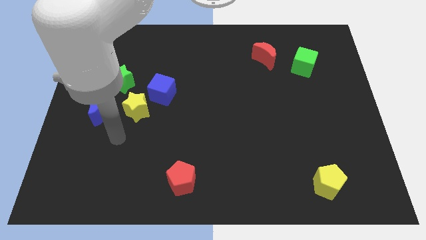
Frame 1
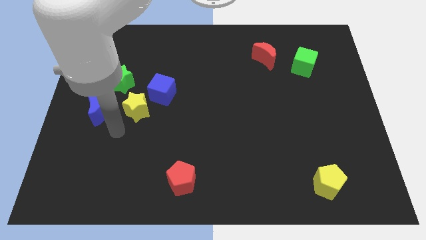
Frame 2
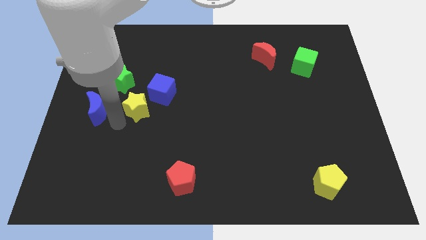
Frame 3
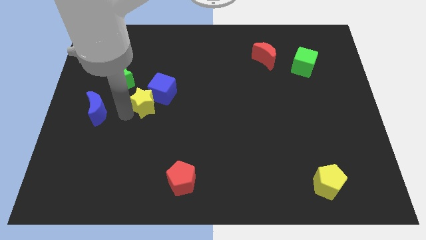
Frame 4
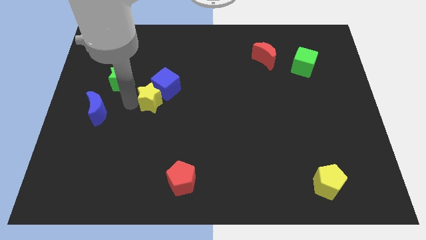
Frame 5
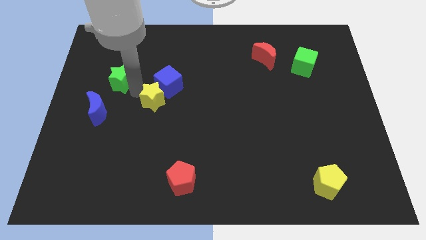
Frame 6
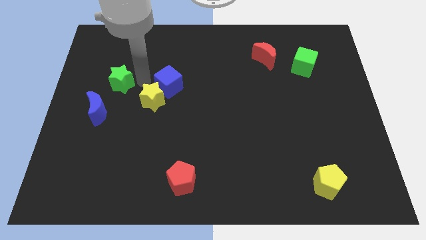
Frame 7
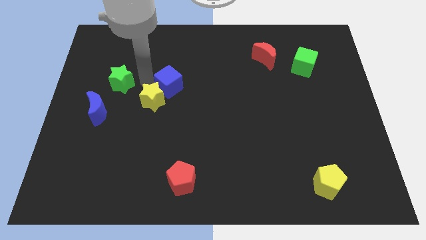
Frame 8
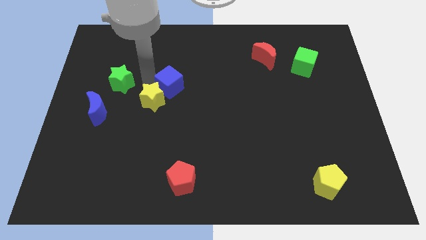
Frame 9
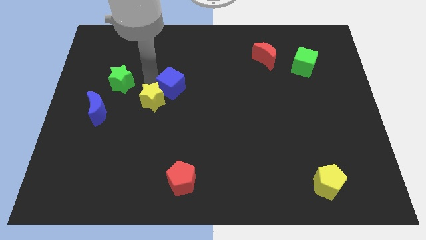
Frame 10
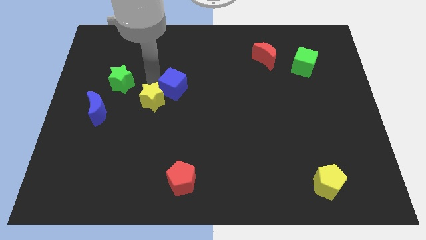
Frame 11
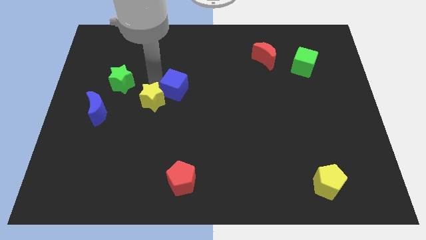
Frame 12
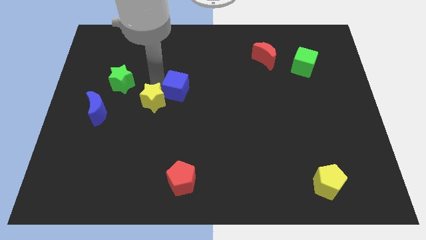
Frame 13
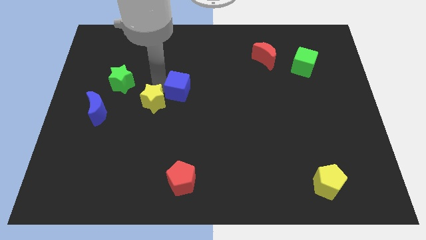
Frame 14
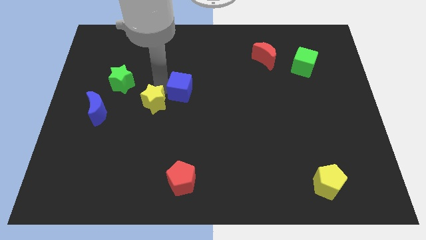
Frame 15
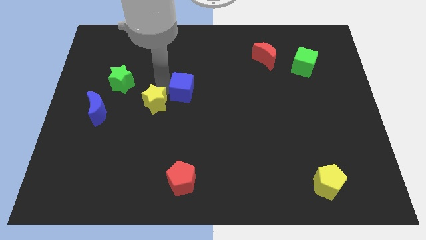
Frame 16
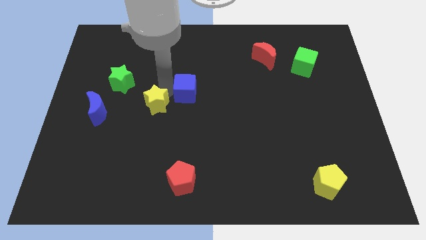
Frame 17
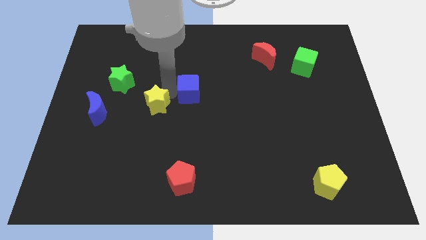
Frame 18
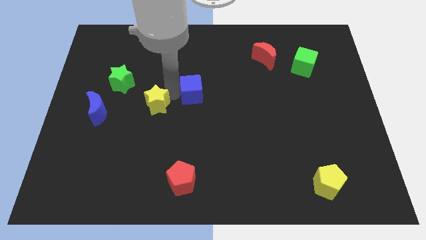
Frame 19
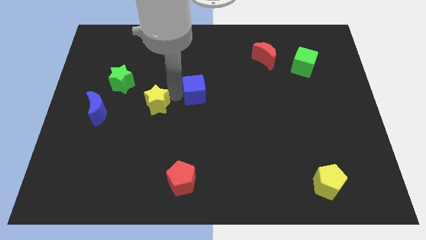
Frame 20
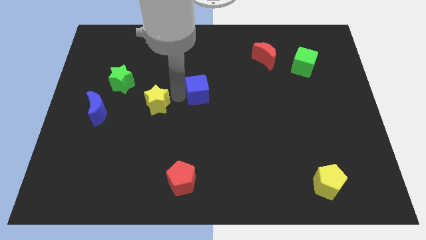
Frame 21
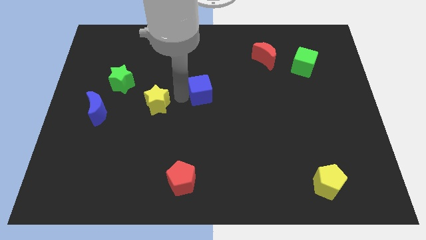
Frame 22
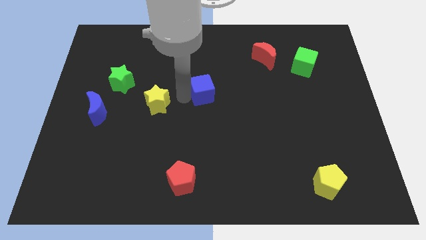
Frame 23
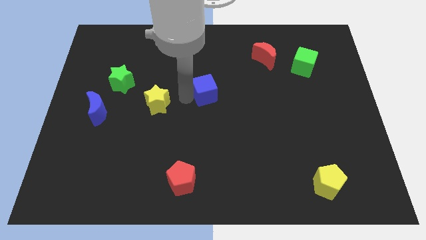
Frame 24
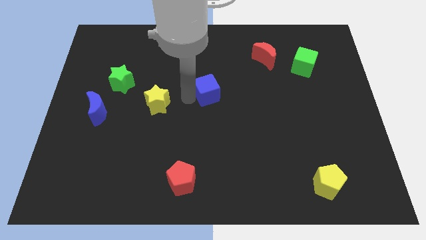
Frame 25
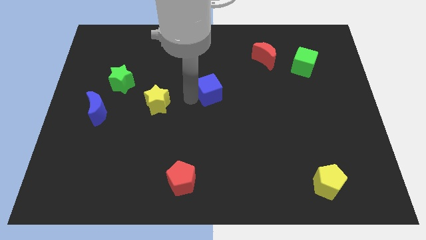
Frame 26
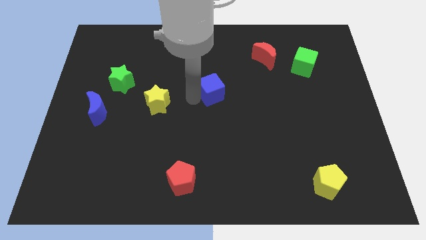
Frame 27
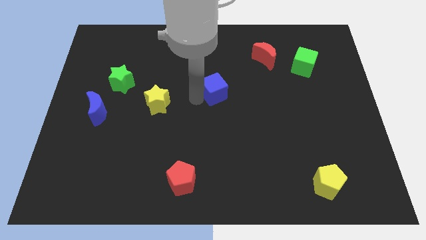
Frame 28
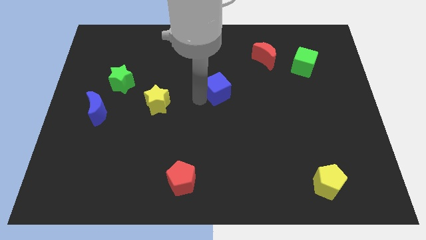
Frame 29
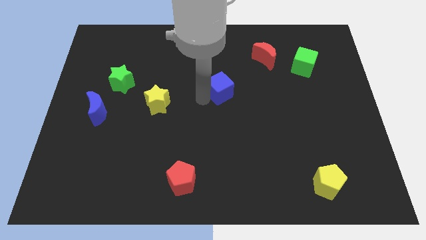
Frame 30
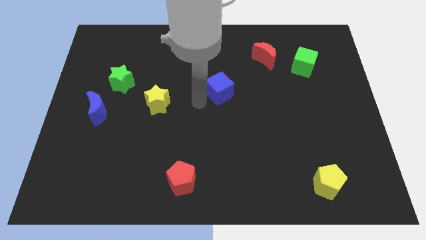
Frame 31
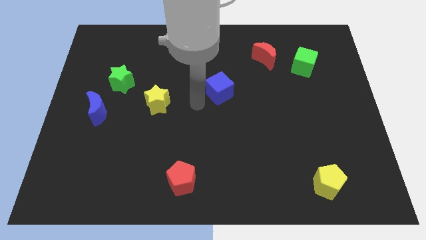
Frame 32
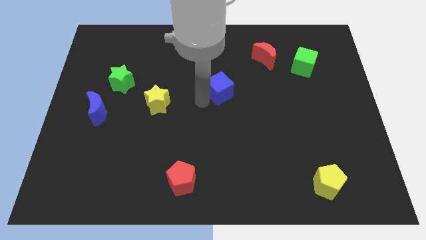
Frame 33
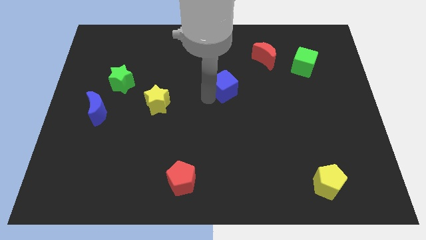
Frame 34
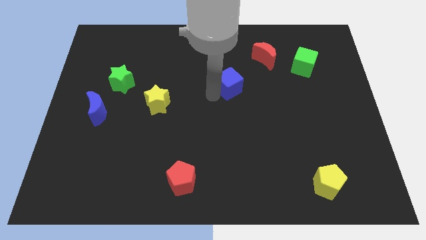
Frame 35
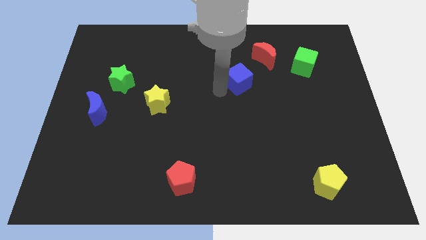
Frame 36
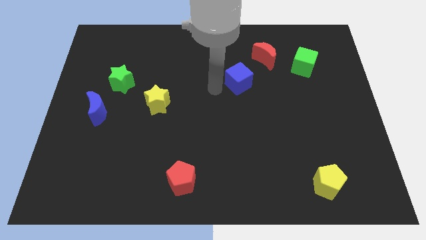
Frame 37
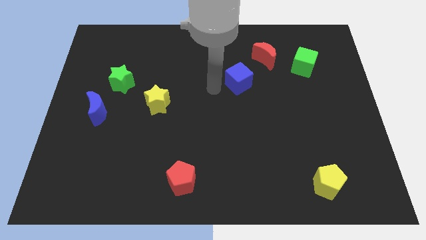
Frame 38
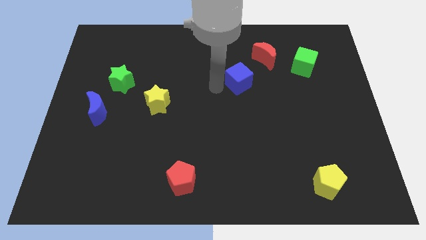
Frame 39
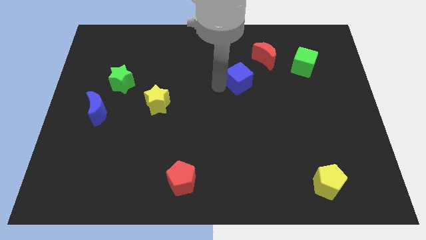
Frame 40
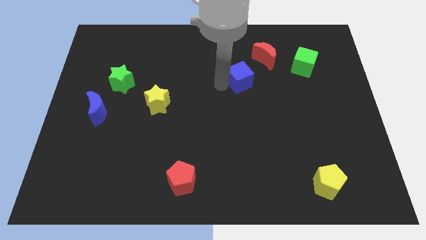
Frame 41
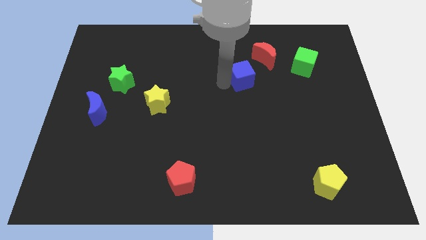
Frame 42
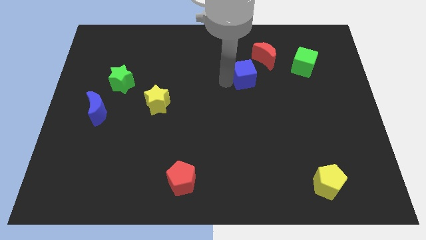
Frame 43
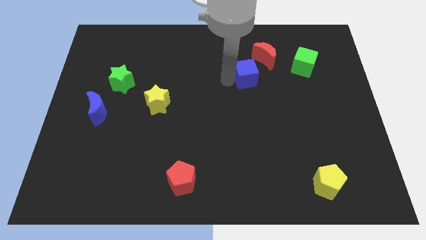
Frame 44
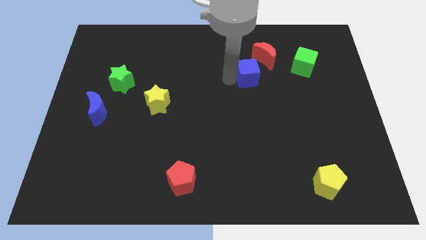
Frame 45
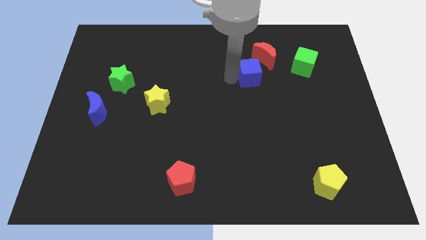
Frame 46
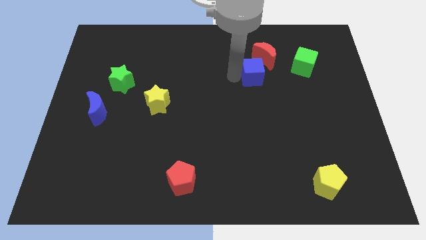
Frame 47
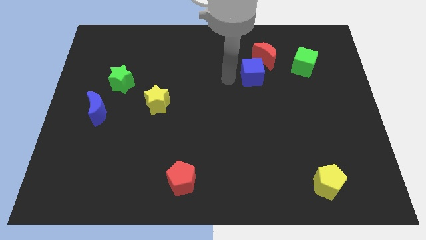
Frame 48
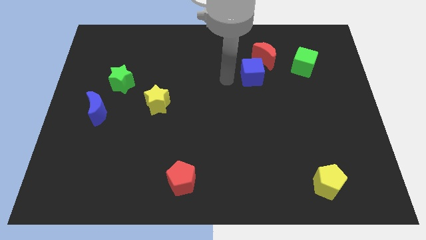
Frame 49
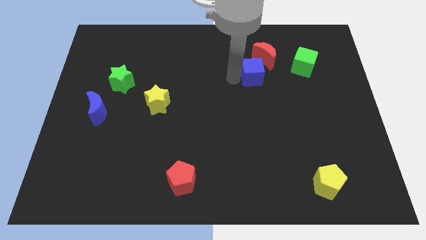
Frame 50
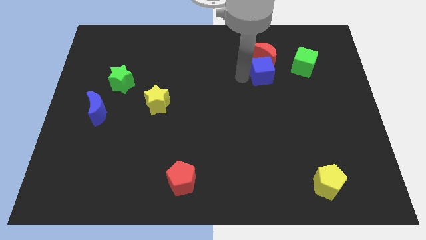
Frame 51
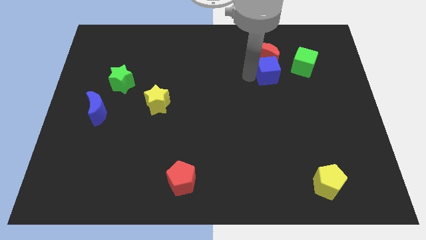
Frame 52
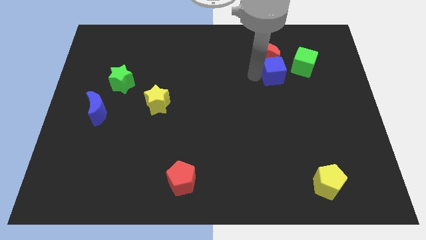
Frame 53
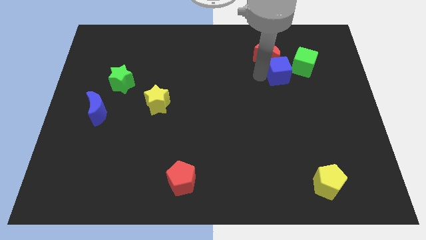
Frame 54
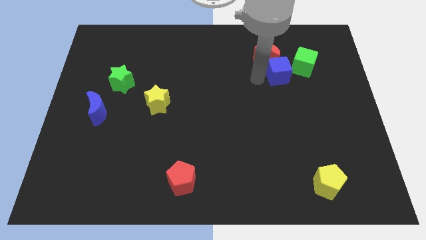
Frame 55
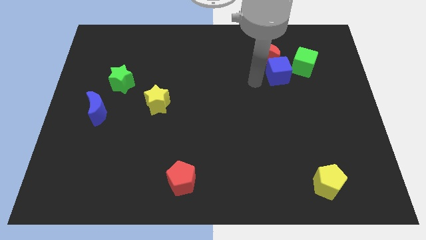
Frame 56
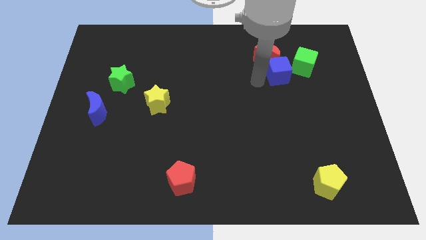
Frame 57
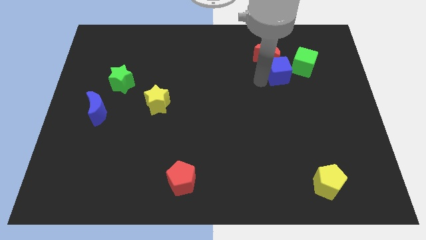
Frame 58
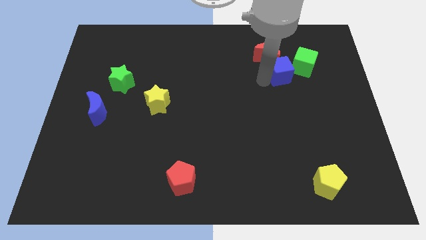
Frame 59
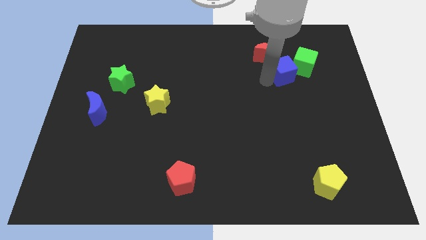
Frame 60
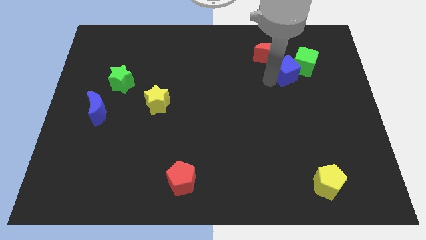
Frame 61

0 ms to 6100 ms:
slide the blue cube towards the green cube
